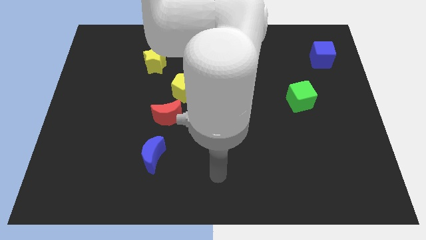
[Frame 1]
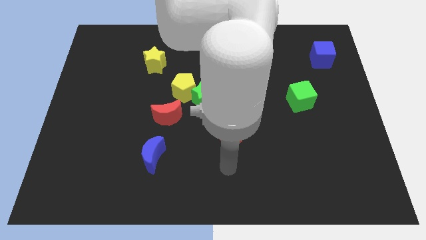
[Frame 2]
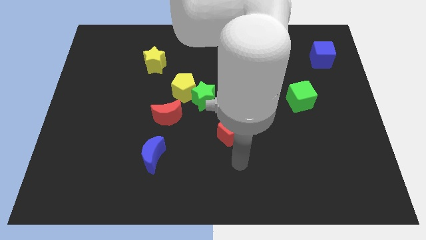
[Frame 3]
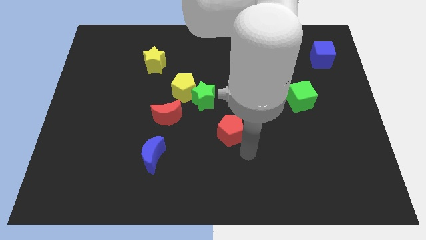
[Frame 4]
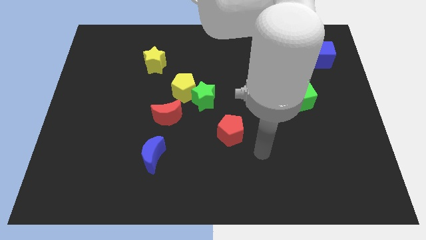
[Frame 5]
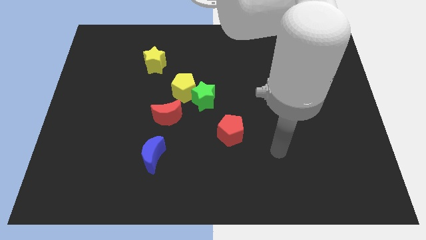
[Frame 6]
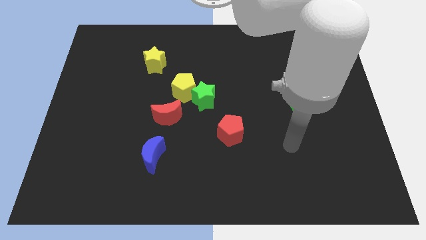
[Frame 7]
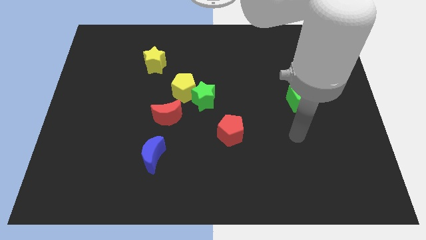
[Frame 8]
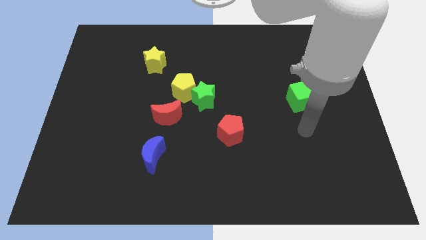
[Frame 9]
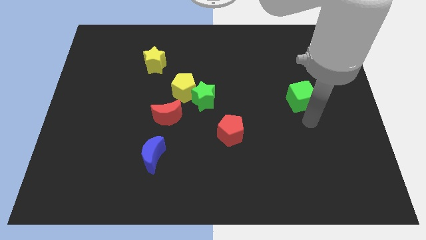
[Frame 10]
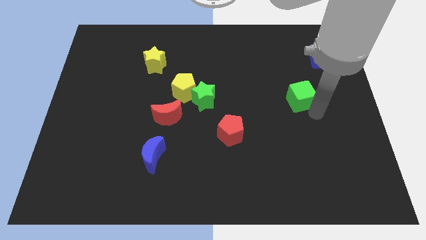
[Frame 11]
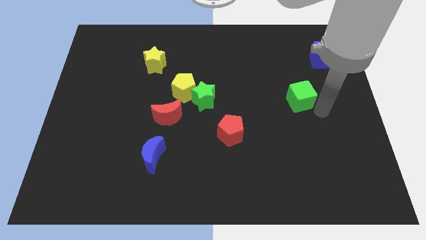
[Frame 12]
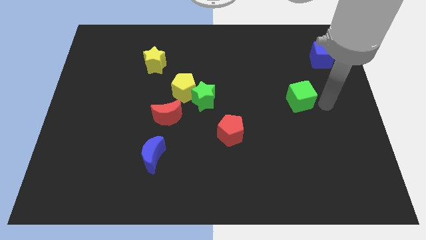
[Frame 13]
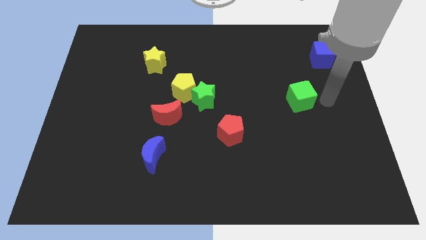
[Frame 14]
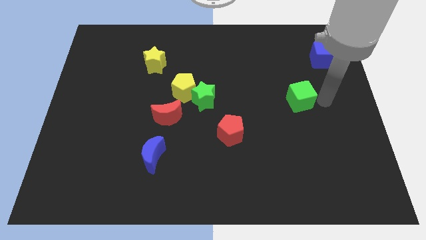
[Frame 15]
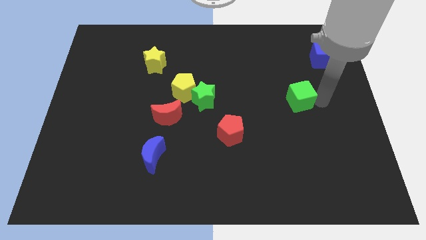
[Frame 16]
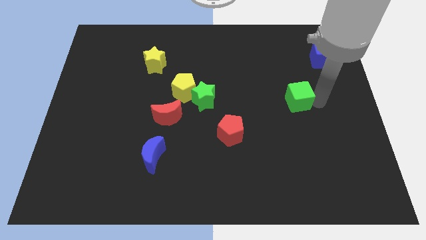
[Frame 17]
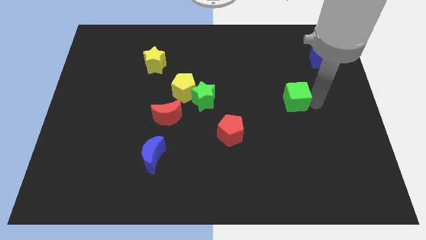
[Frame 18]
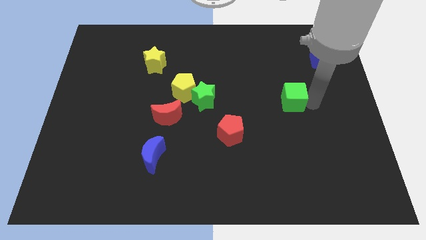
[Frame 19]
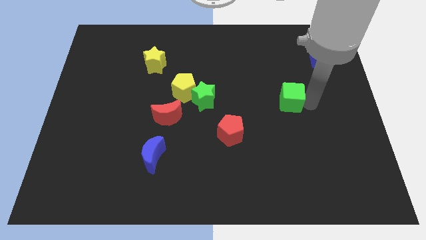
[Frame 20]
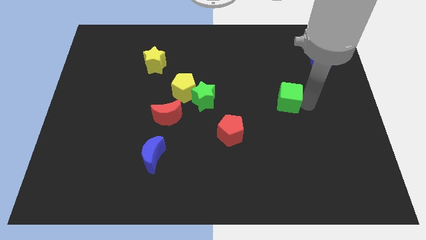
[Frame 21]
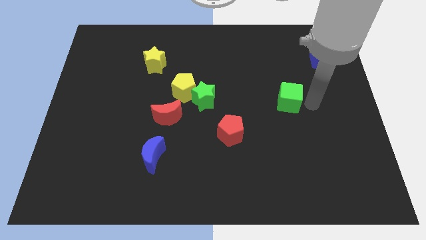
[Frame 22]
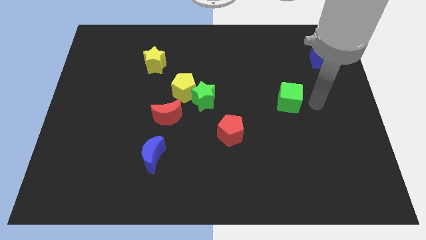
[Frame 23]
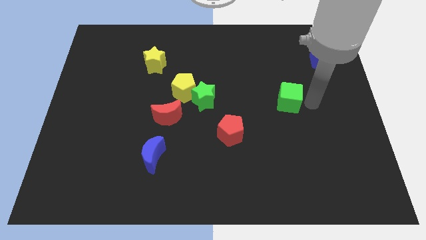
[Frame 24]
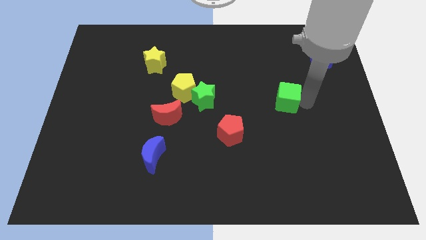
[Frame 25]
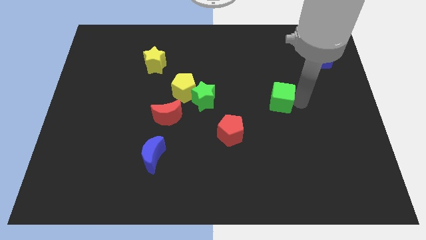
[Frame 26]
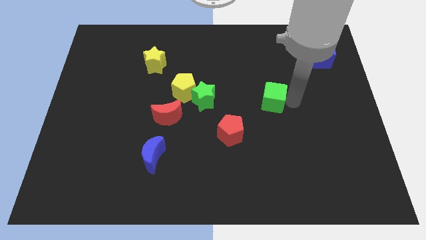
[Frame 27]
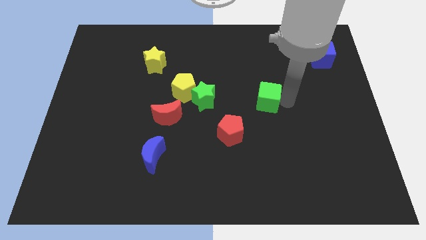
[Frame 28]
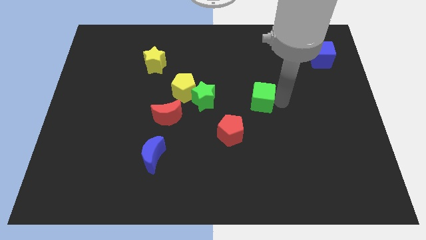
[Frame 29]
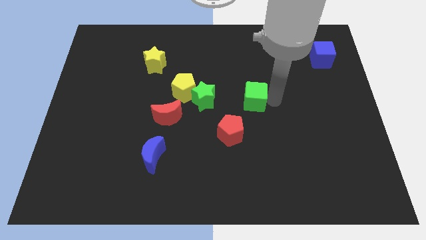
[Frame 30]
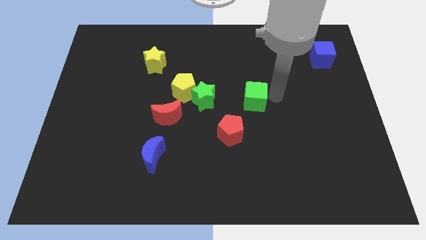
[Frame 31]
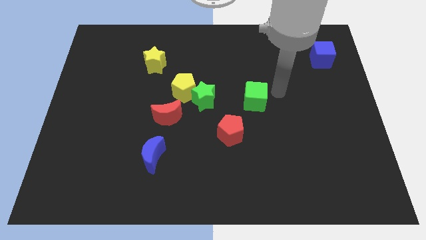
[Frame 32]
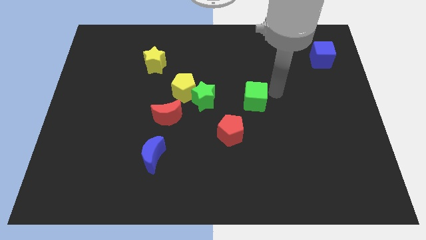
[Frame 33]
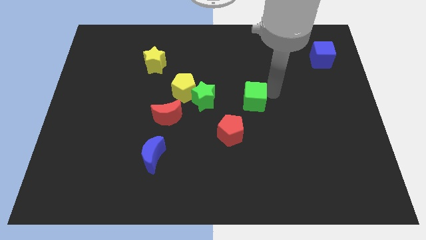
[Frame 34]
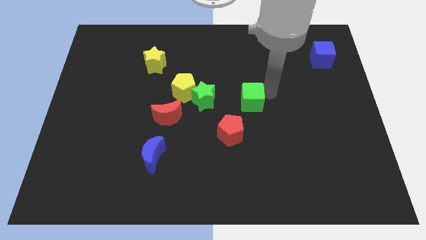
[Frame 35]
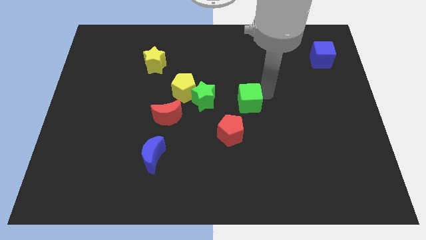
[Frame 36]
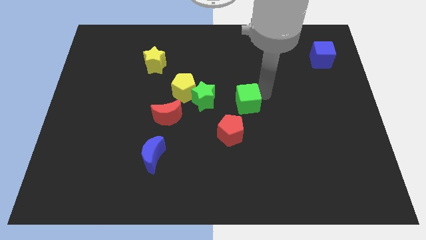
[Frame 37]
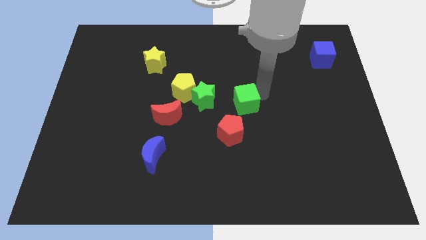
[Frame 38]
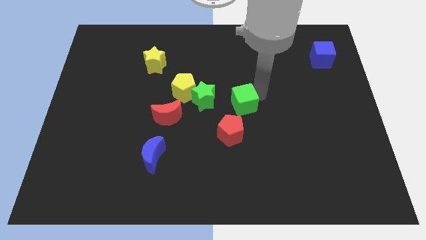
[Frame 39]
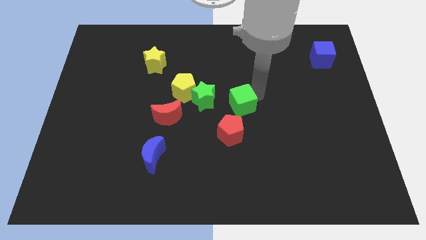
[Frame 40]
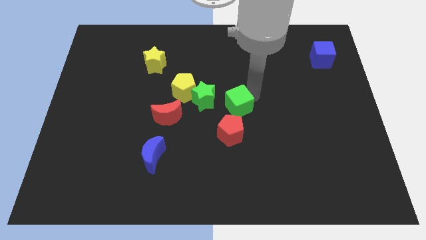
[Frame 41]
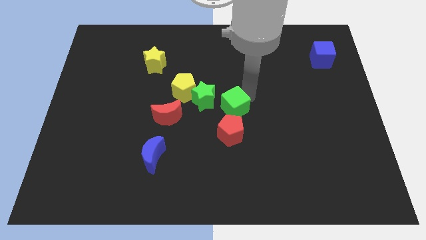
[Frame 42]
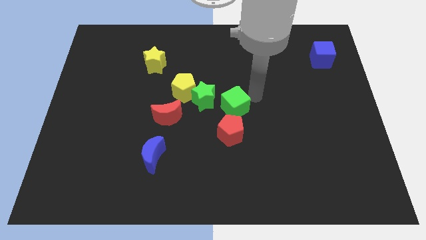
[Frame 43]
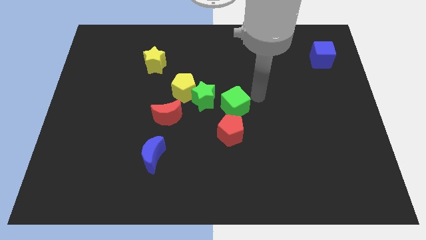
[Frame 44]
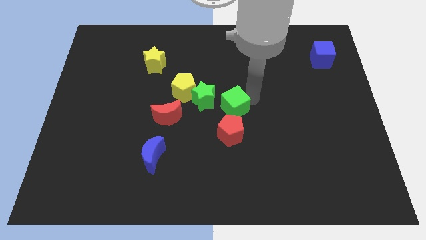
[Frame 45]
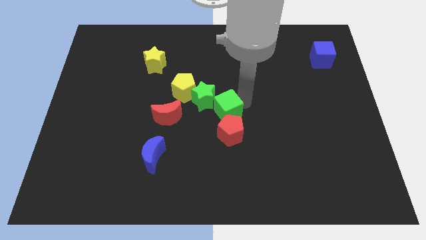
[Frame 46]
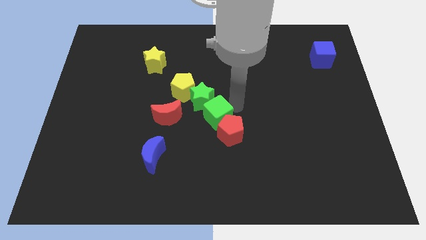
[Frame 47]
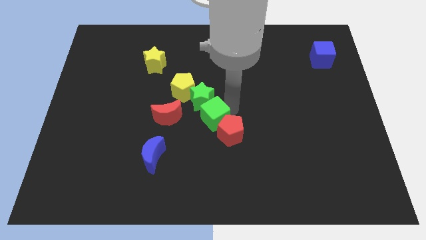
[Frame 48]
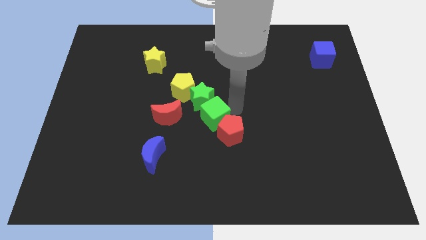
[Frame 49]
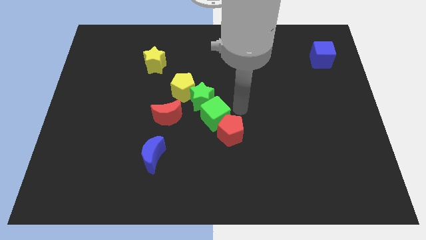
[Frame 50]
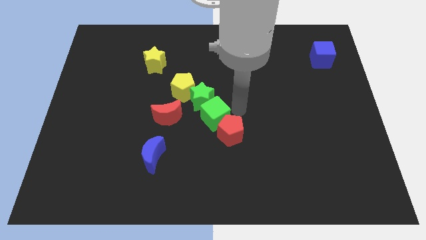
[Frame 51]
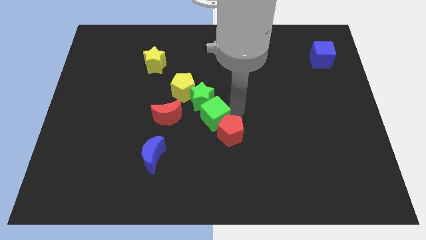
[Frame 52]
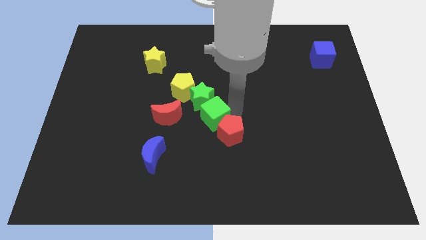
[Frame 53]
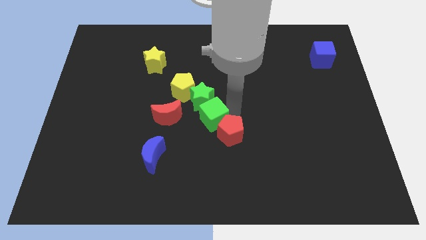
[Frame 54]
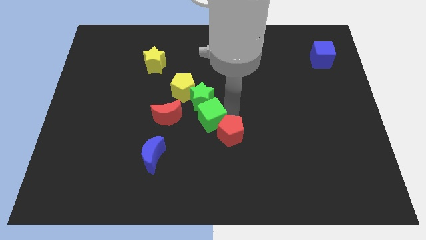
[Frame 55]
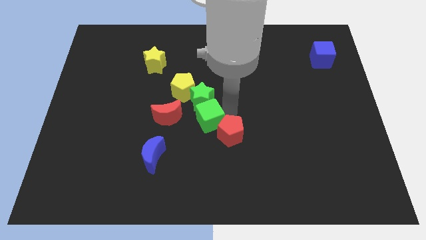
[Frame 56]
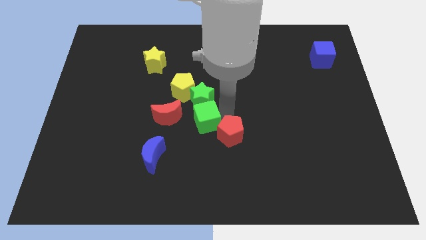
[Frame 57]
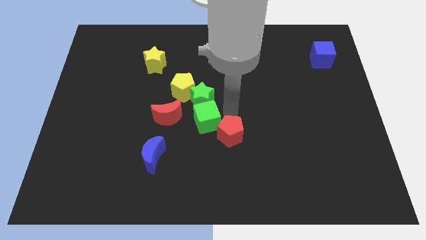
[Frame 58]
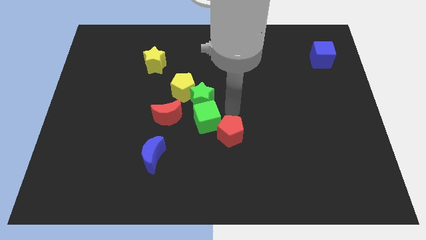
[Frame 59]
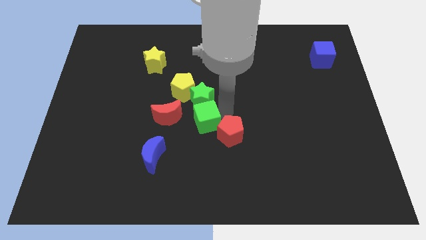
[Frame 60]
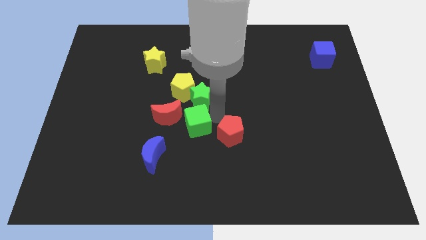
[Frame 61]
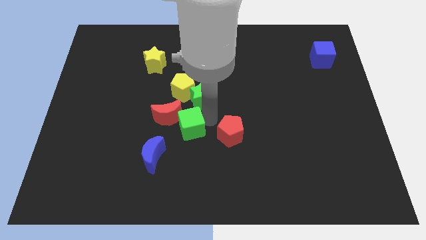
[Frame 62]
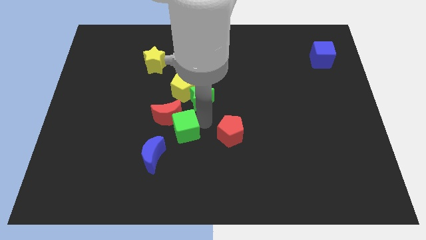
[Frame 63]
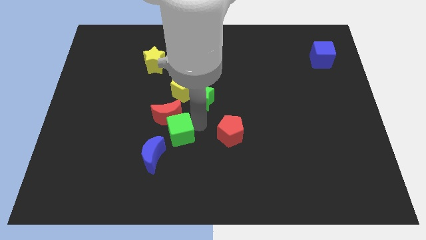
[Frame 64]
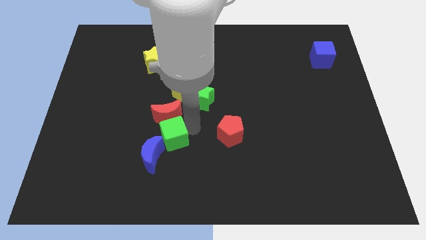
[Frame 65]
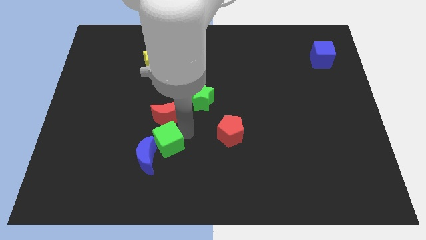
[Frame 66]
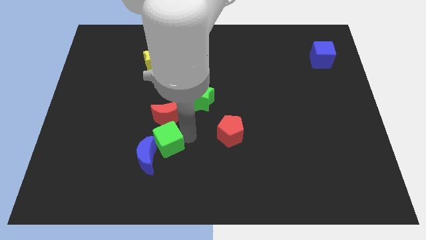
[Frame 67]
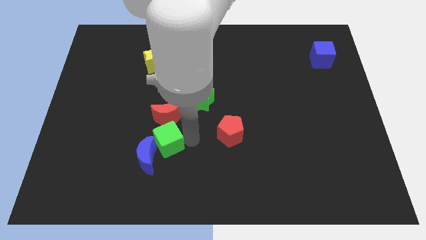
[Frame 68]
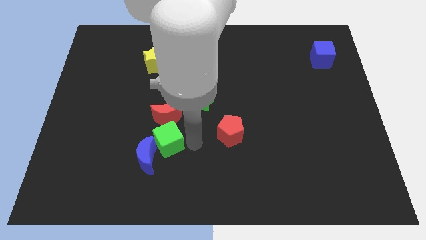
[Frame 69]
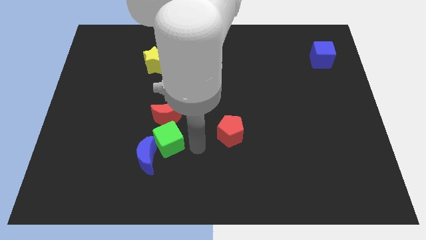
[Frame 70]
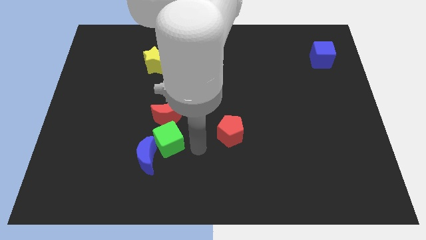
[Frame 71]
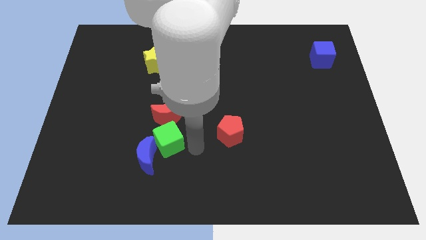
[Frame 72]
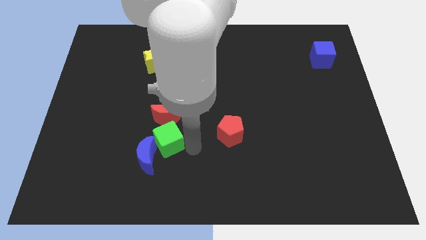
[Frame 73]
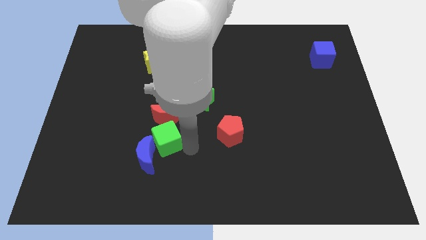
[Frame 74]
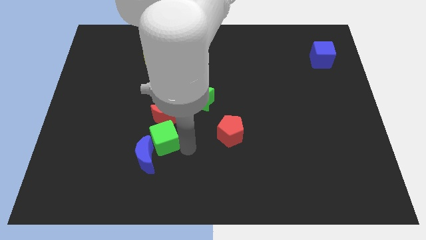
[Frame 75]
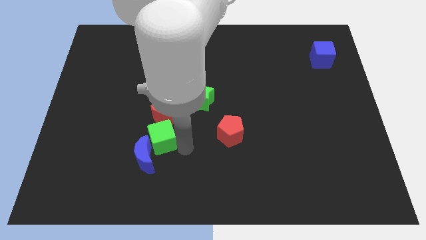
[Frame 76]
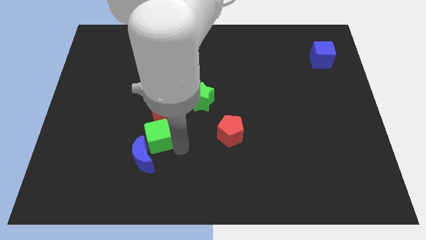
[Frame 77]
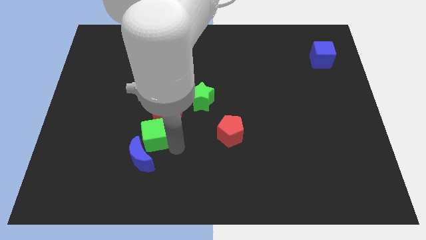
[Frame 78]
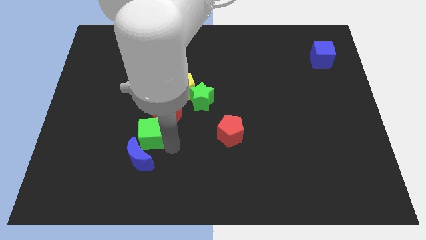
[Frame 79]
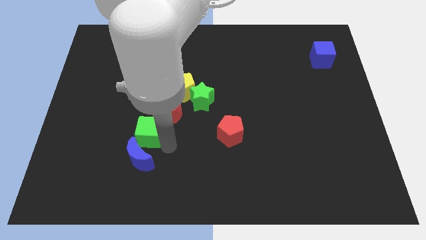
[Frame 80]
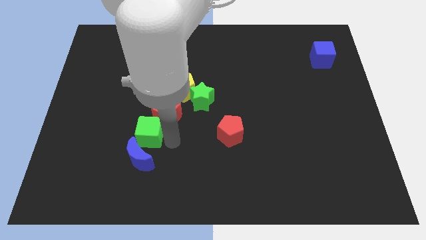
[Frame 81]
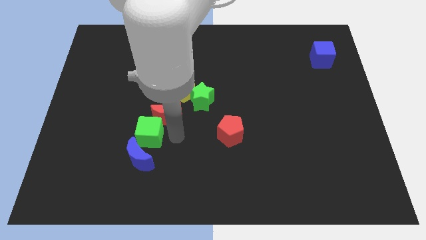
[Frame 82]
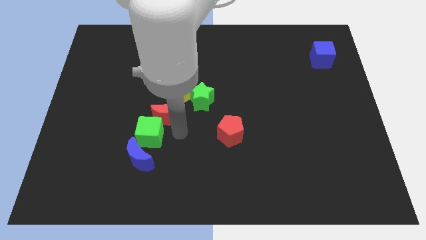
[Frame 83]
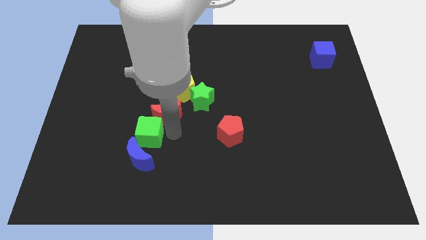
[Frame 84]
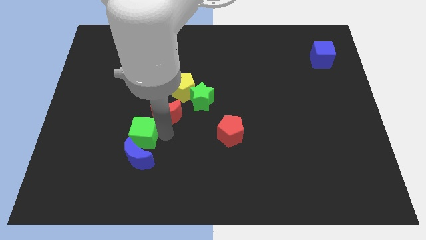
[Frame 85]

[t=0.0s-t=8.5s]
slide the green cube to the top left of the blue moon
